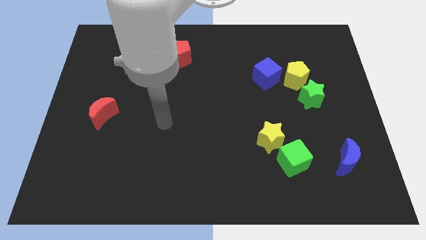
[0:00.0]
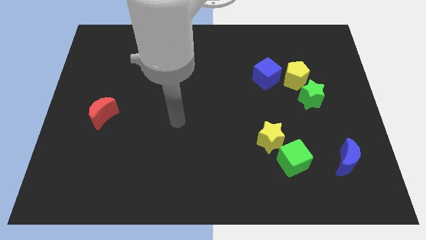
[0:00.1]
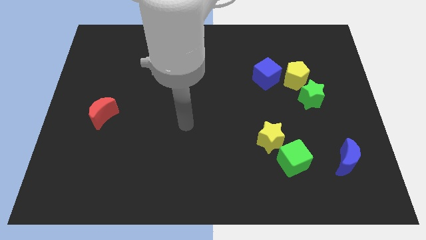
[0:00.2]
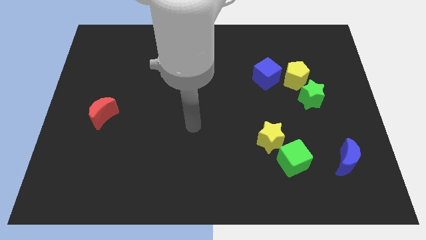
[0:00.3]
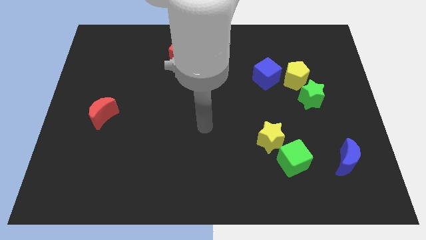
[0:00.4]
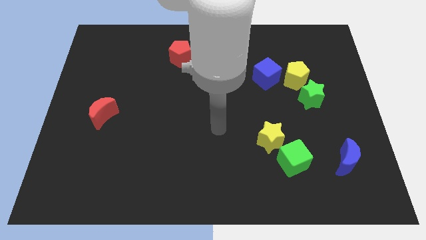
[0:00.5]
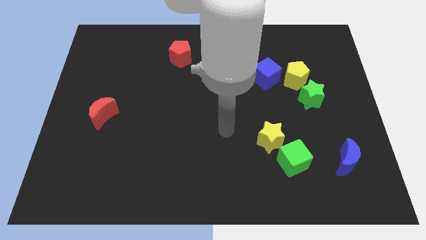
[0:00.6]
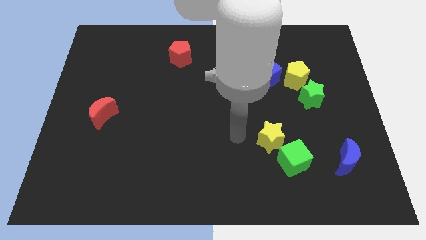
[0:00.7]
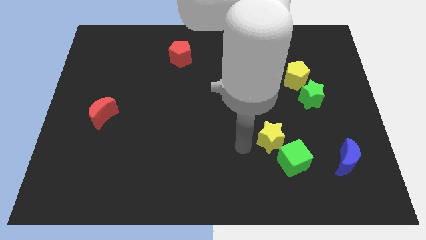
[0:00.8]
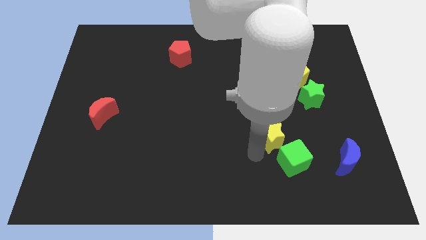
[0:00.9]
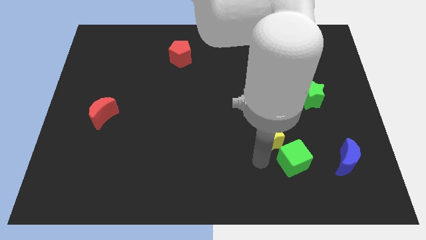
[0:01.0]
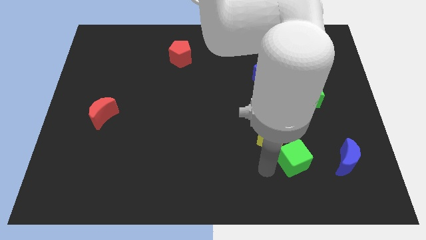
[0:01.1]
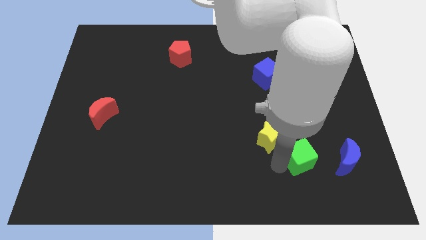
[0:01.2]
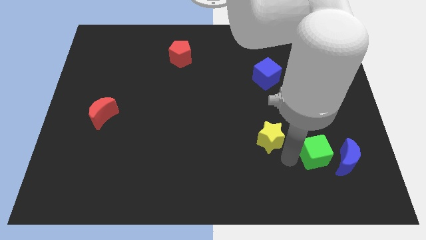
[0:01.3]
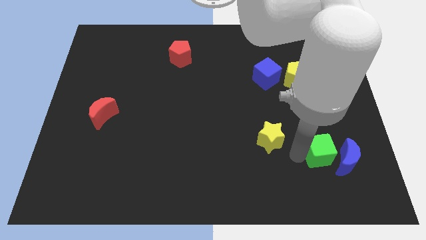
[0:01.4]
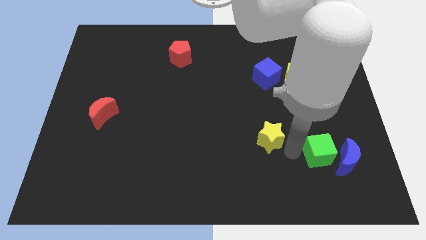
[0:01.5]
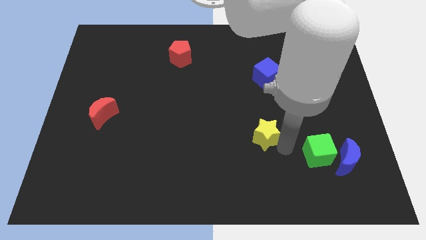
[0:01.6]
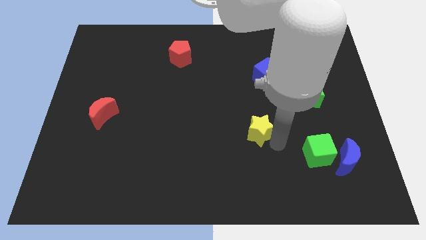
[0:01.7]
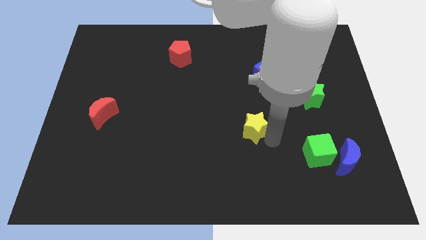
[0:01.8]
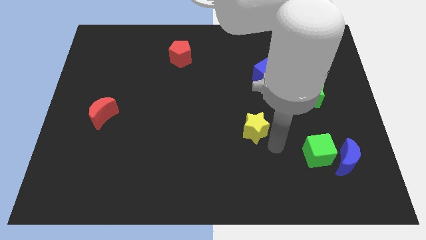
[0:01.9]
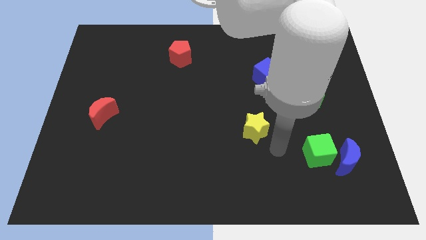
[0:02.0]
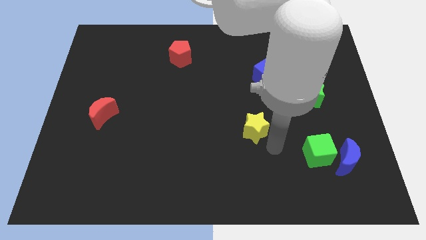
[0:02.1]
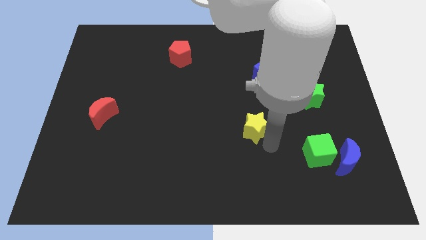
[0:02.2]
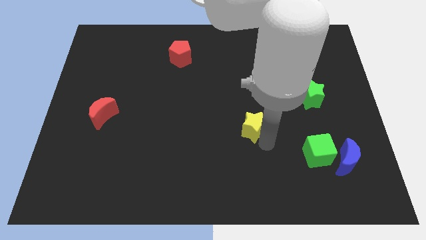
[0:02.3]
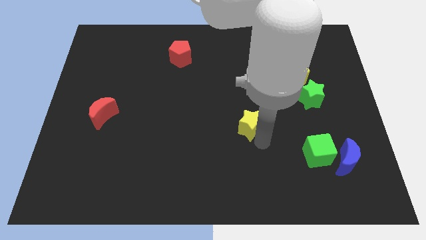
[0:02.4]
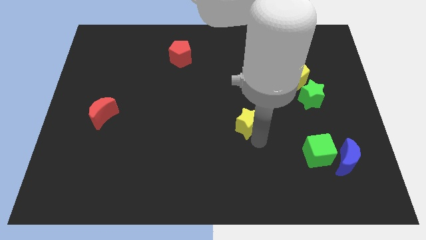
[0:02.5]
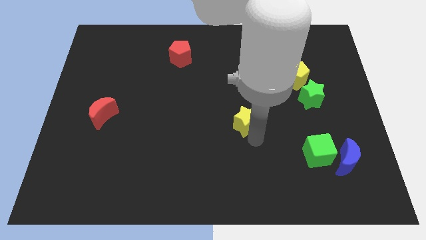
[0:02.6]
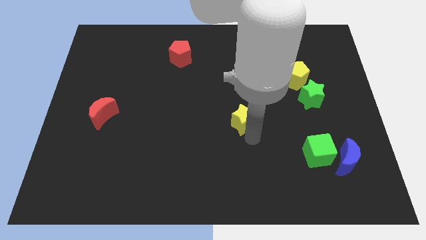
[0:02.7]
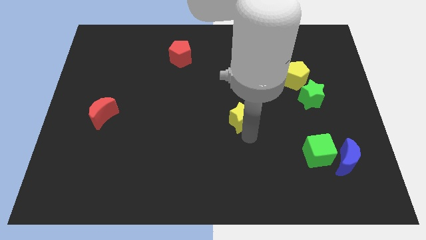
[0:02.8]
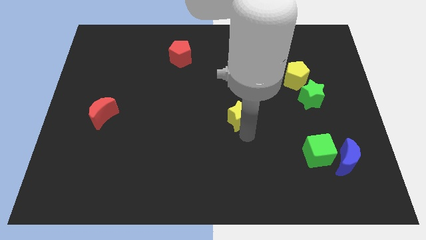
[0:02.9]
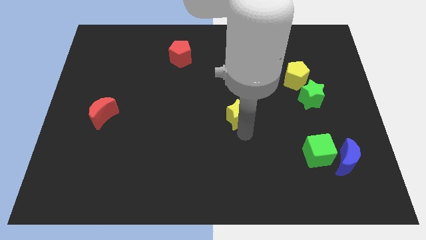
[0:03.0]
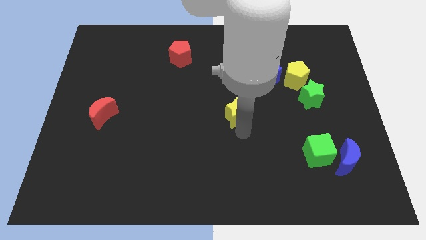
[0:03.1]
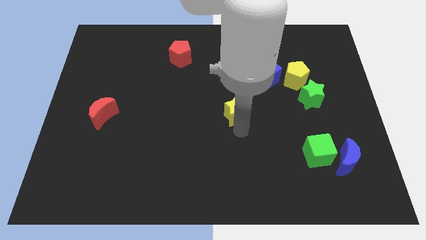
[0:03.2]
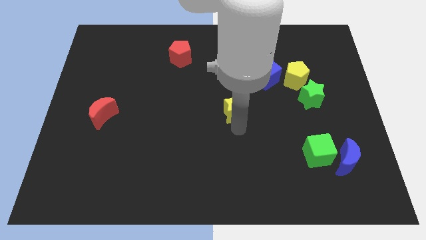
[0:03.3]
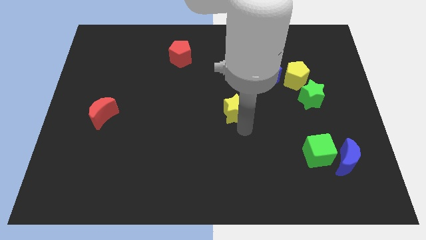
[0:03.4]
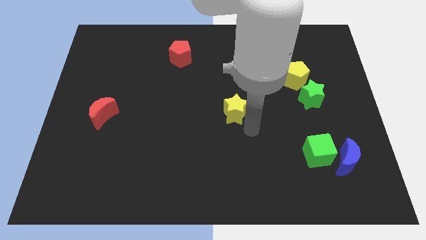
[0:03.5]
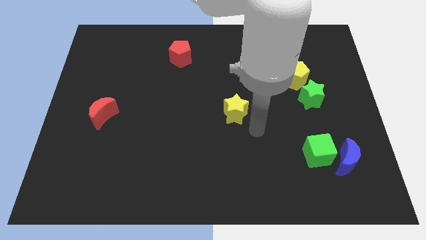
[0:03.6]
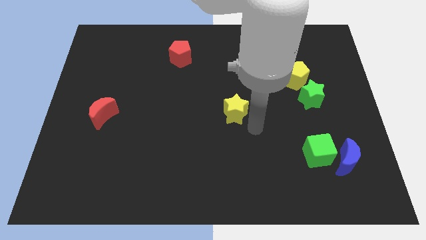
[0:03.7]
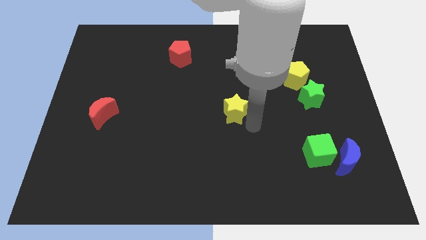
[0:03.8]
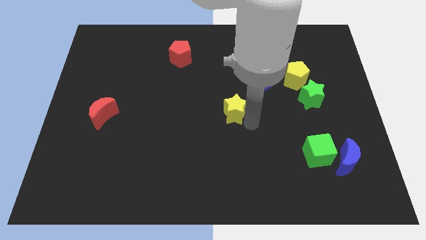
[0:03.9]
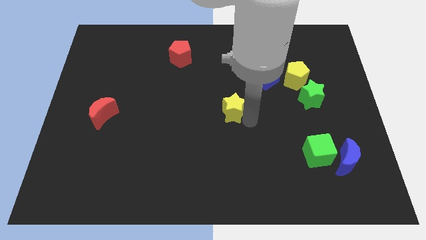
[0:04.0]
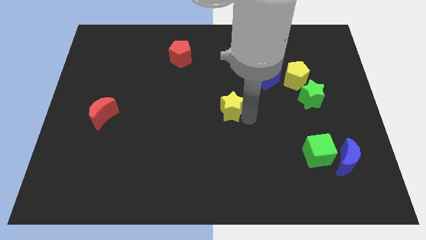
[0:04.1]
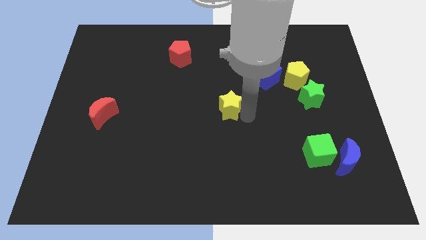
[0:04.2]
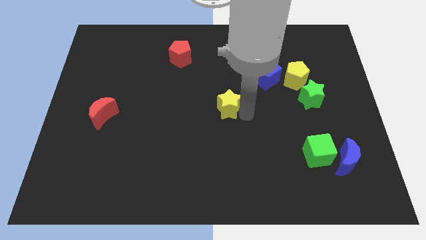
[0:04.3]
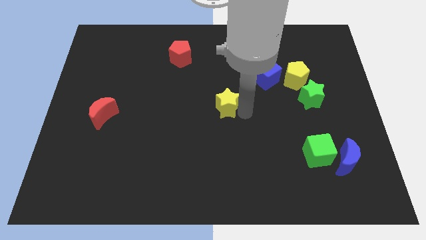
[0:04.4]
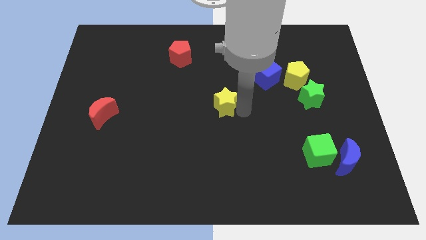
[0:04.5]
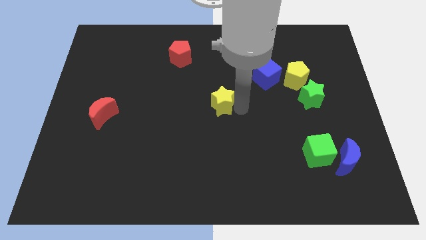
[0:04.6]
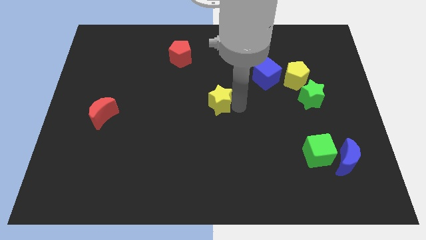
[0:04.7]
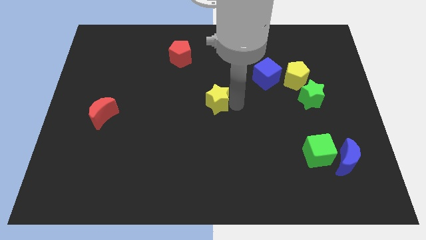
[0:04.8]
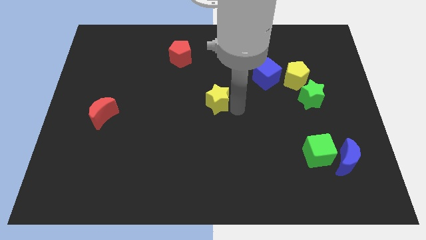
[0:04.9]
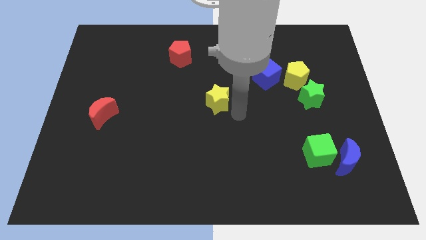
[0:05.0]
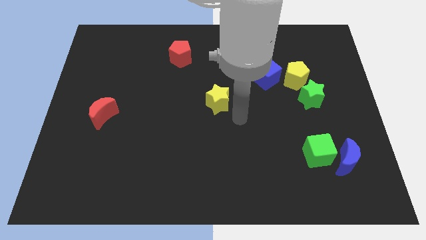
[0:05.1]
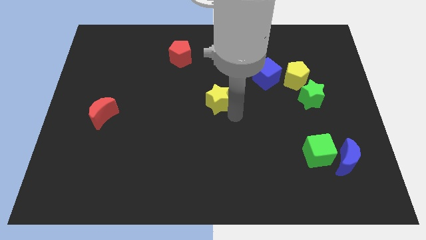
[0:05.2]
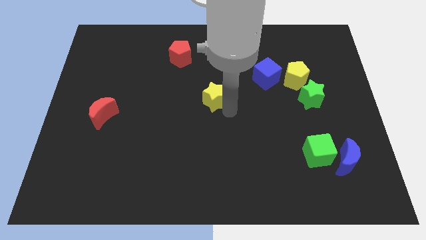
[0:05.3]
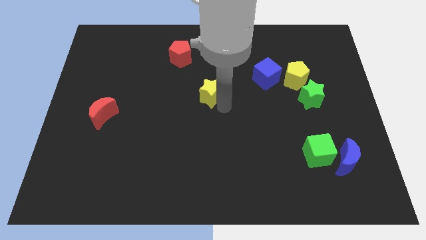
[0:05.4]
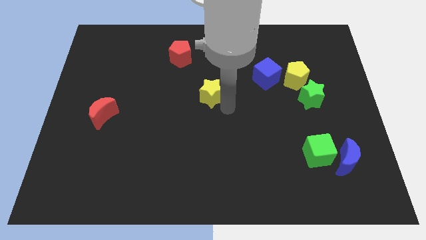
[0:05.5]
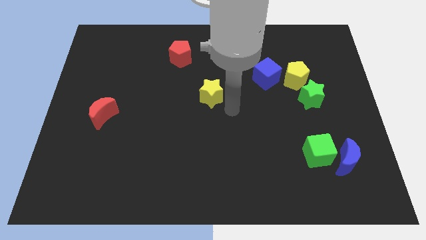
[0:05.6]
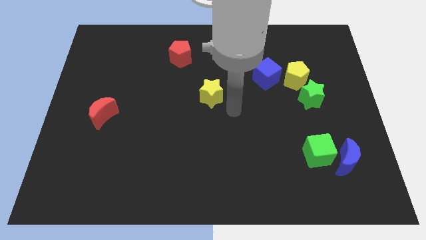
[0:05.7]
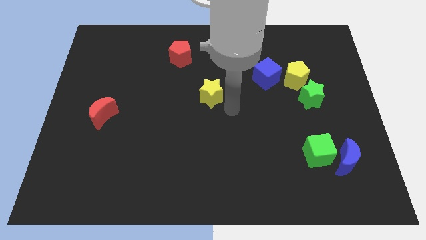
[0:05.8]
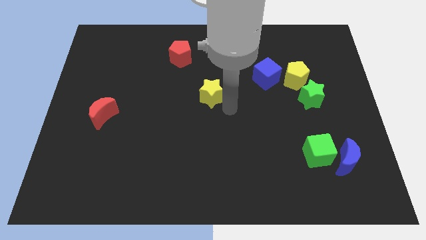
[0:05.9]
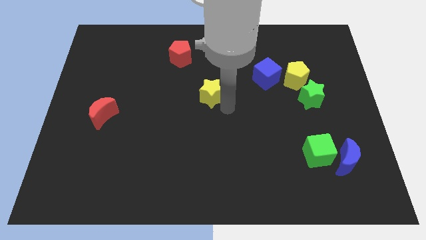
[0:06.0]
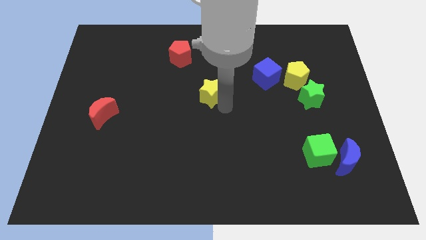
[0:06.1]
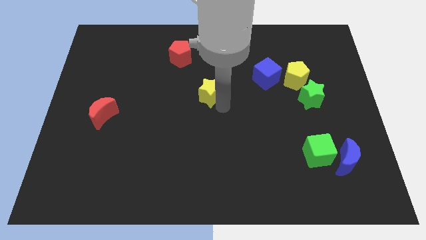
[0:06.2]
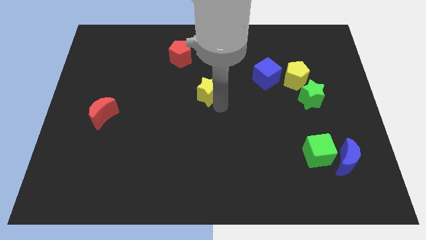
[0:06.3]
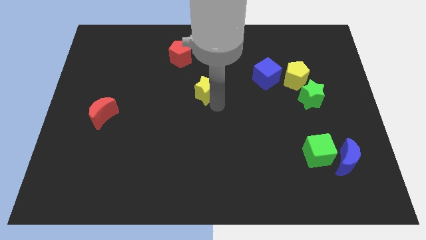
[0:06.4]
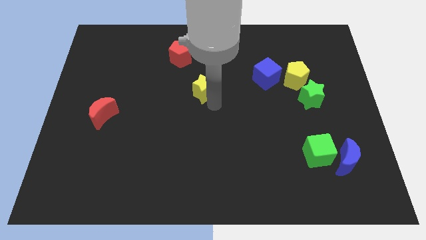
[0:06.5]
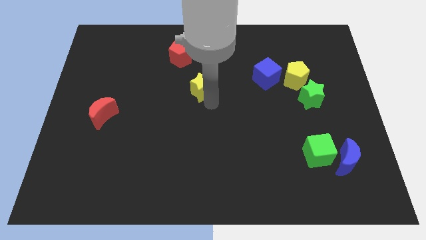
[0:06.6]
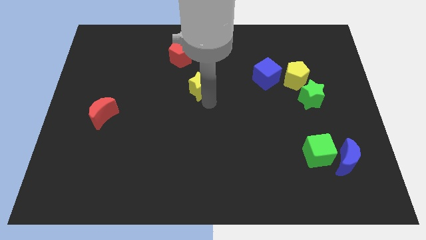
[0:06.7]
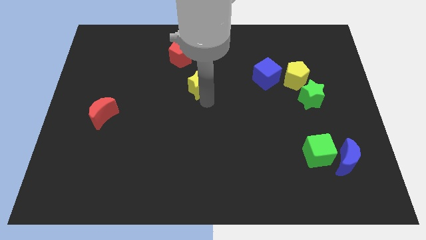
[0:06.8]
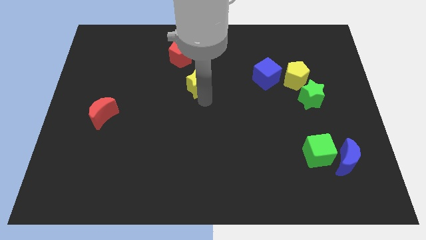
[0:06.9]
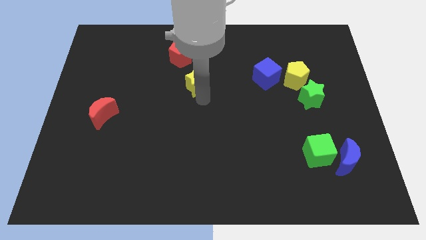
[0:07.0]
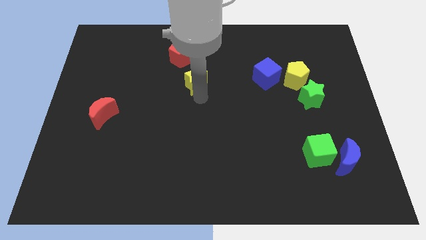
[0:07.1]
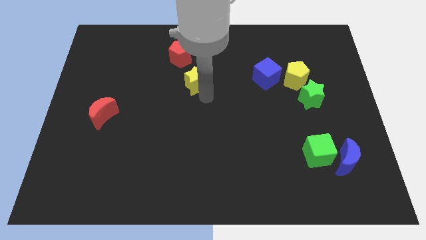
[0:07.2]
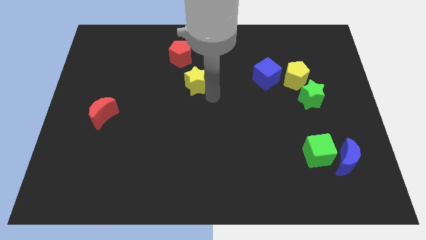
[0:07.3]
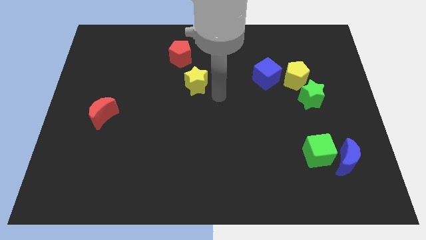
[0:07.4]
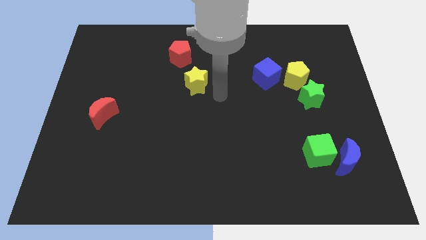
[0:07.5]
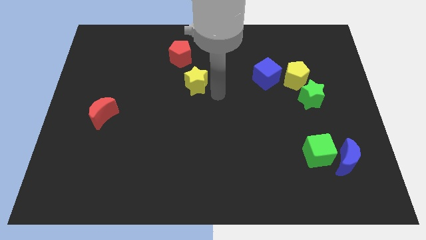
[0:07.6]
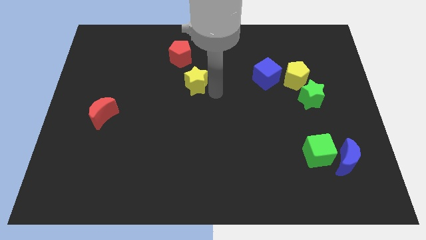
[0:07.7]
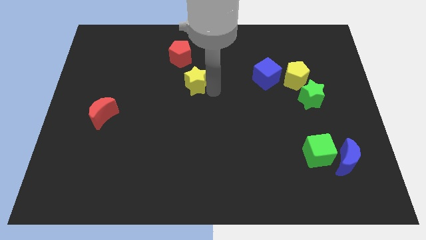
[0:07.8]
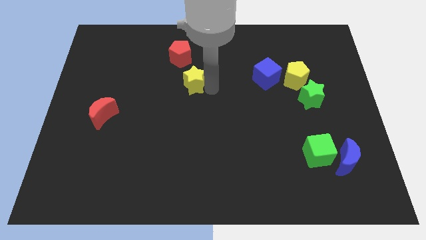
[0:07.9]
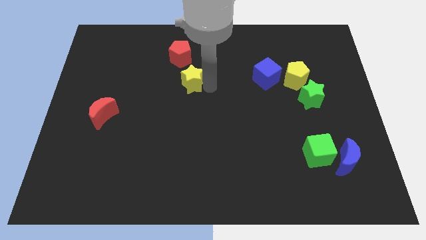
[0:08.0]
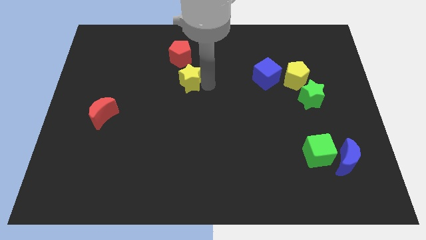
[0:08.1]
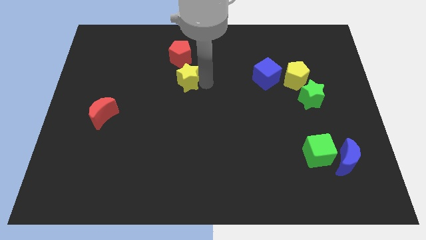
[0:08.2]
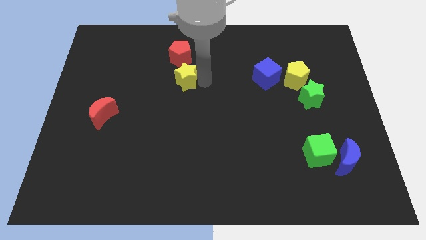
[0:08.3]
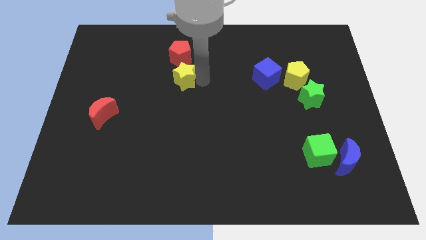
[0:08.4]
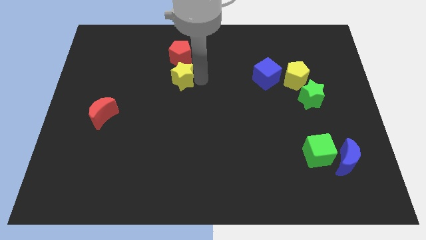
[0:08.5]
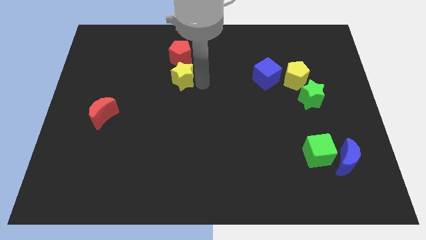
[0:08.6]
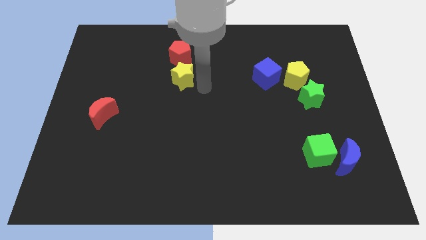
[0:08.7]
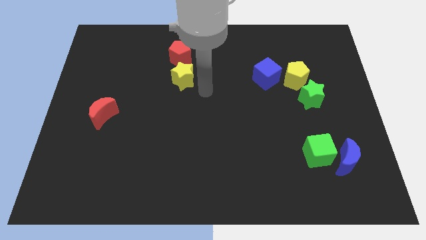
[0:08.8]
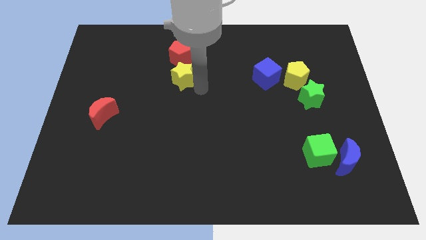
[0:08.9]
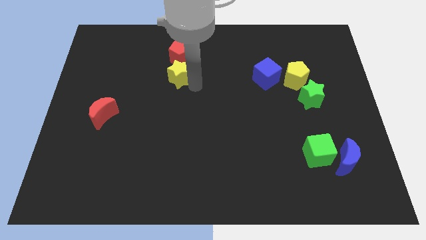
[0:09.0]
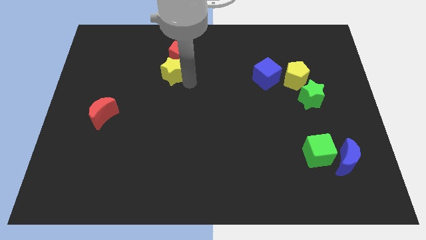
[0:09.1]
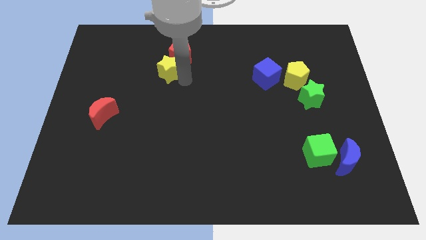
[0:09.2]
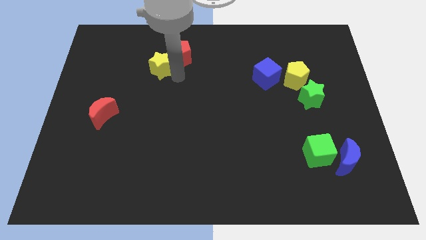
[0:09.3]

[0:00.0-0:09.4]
slide the yellow star left of the red pentagon
